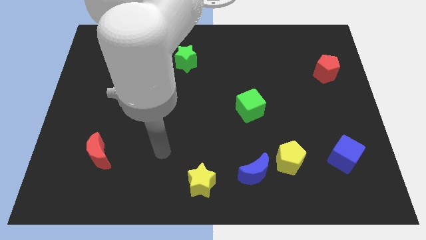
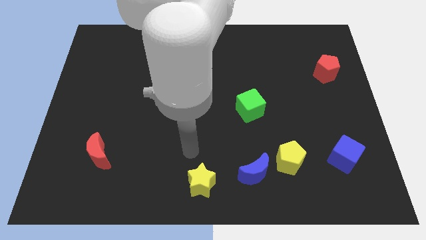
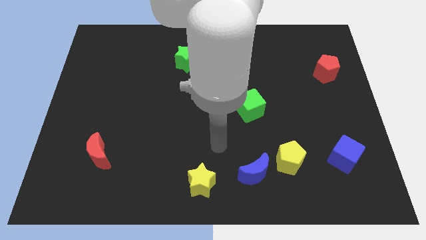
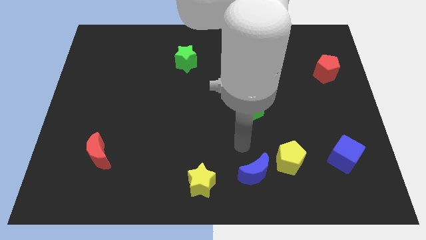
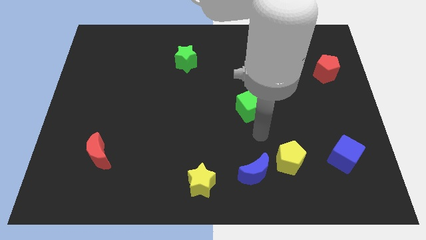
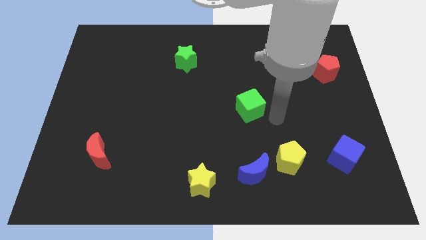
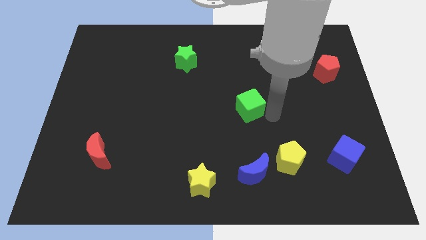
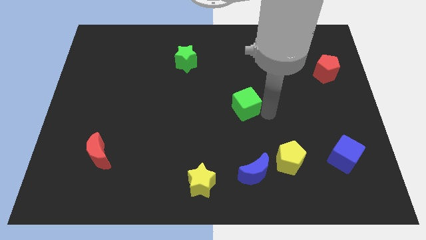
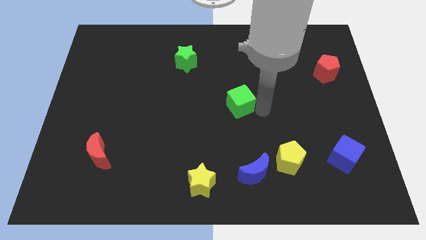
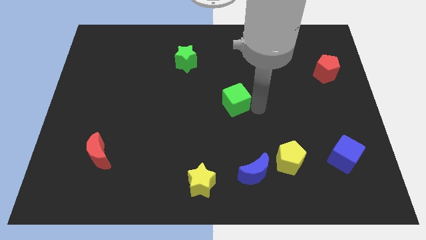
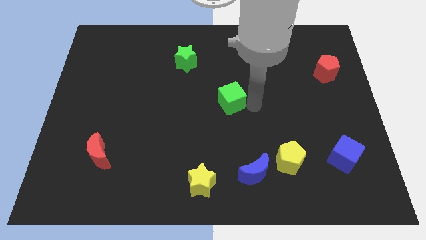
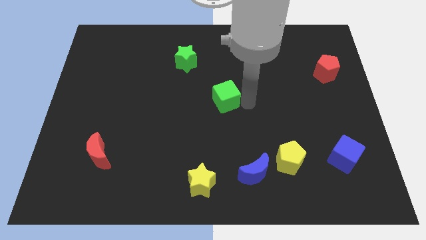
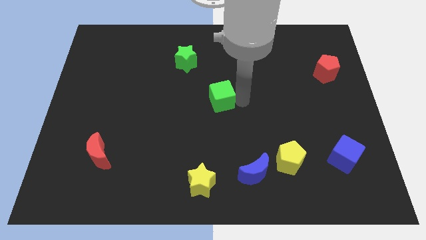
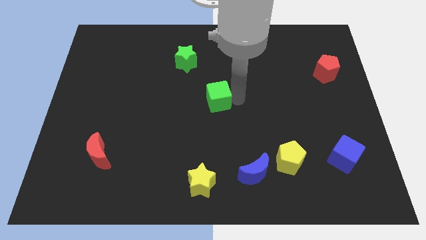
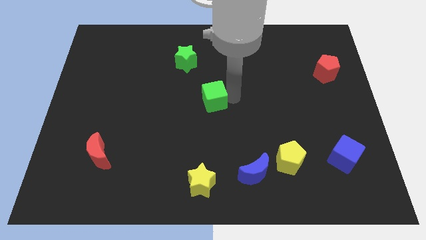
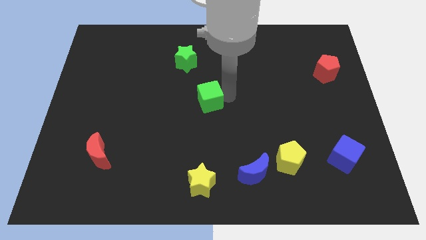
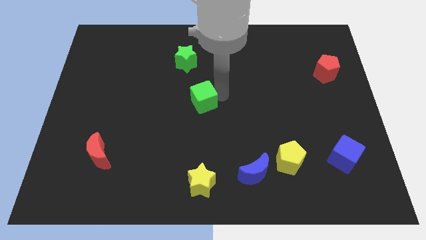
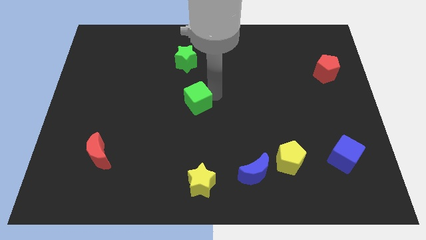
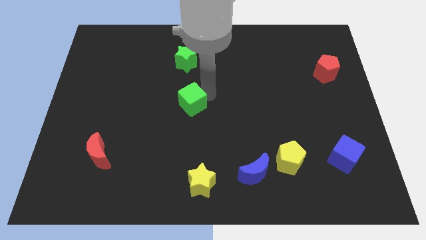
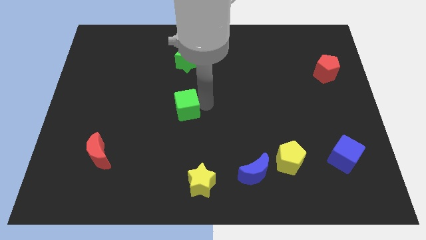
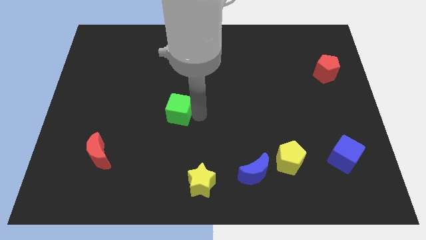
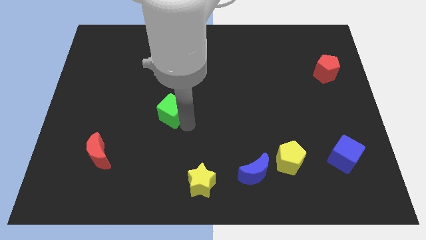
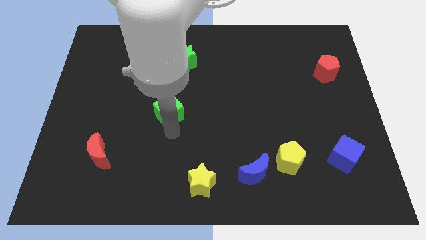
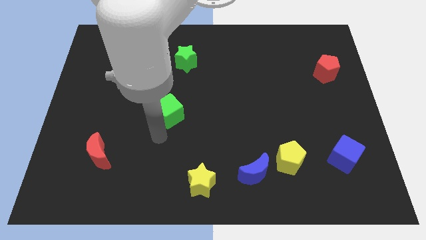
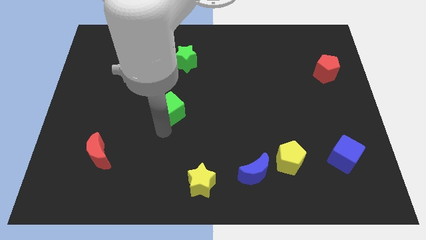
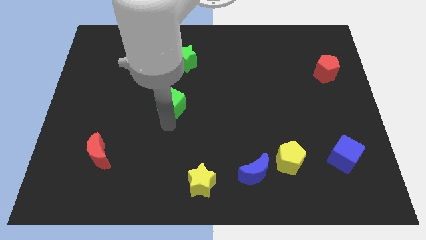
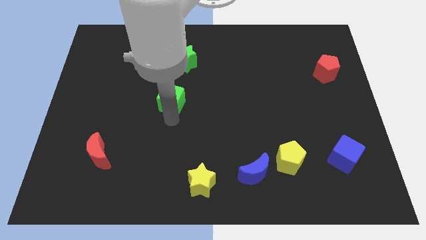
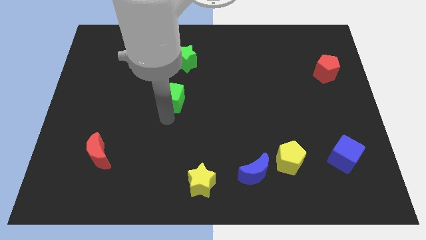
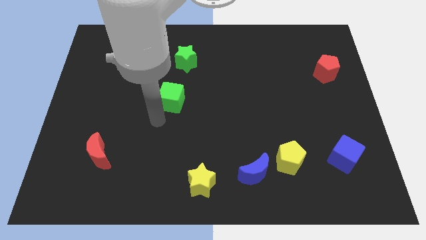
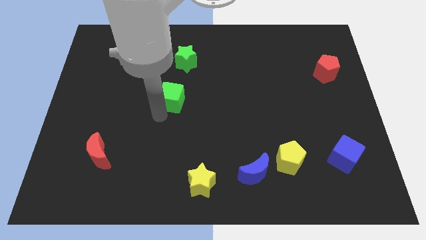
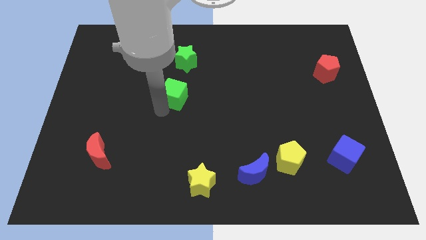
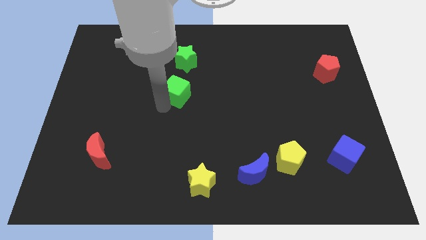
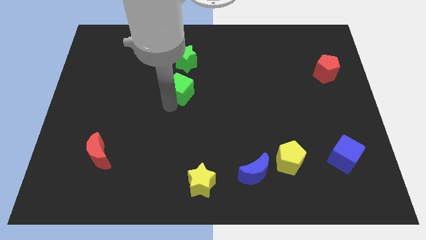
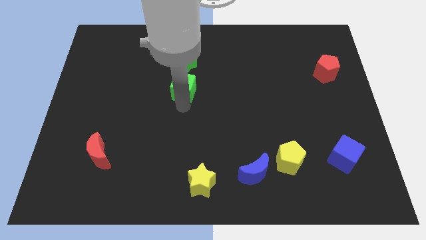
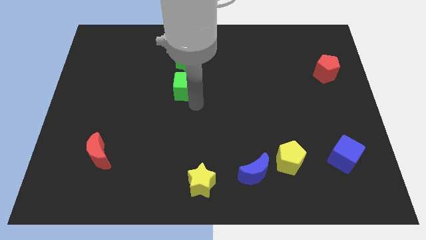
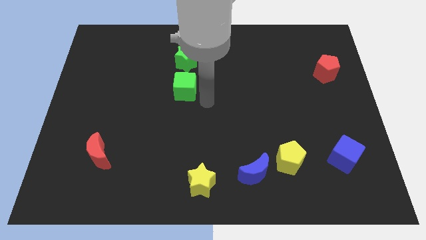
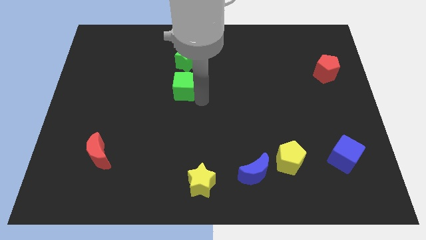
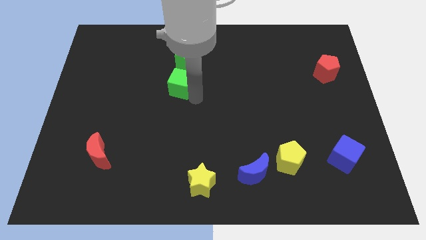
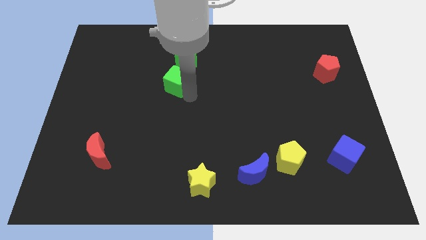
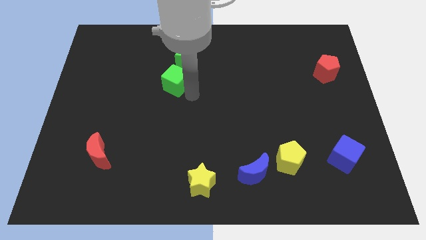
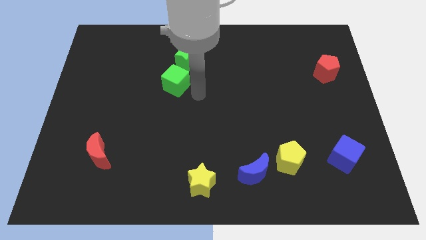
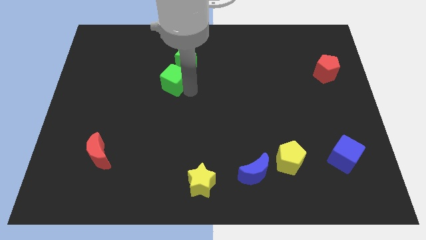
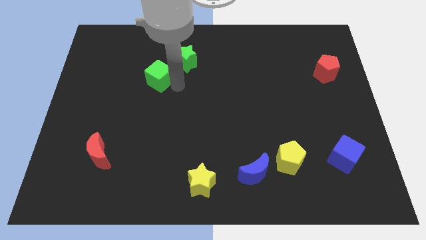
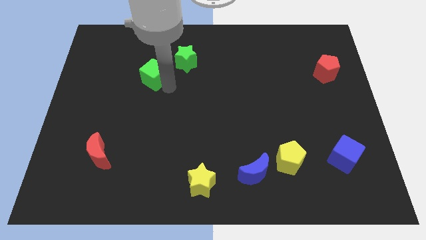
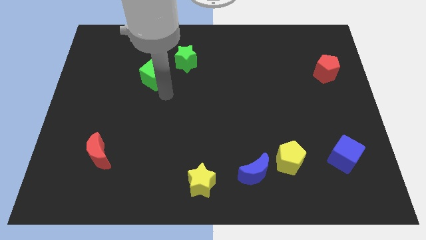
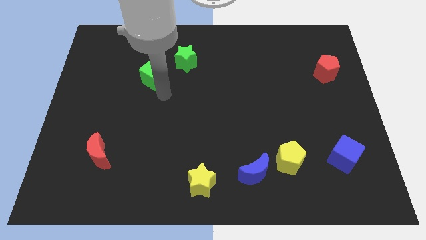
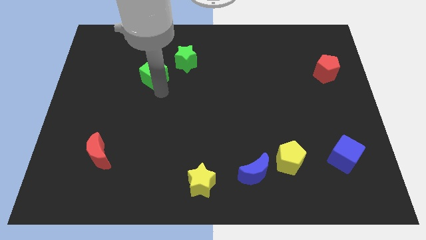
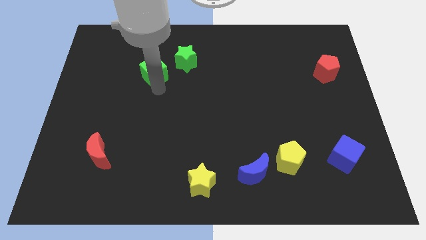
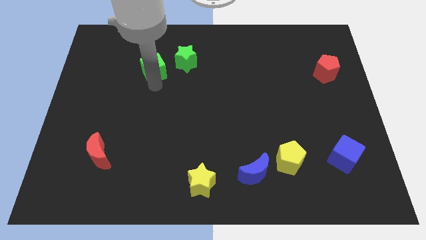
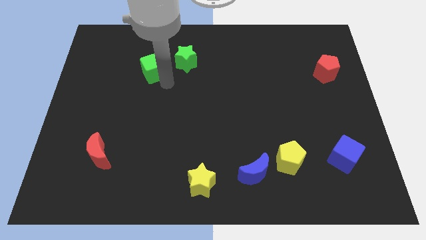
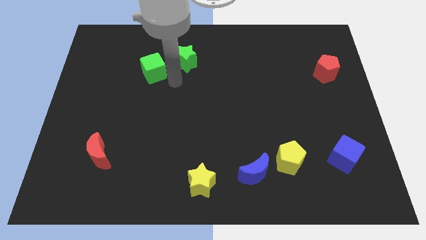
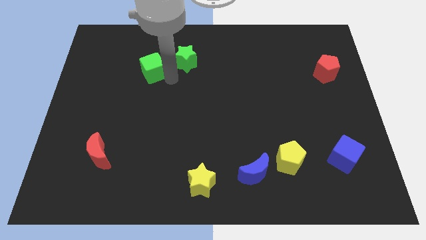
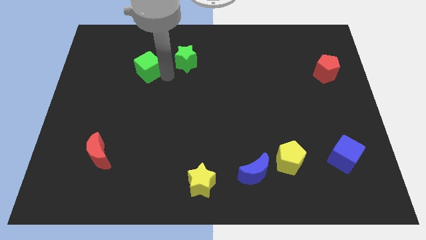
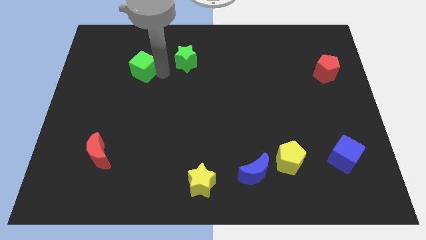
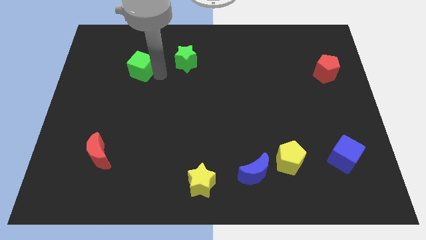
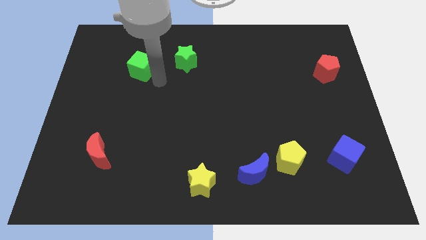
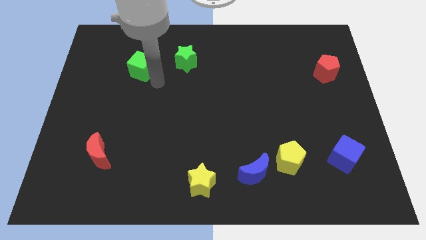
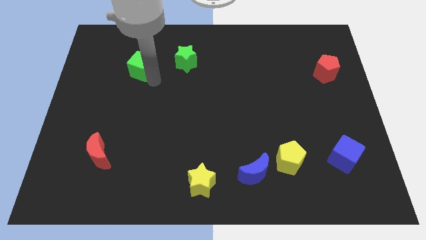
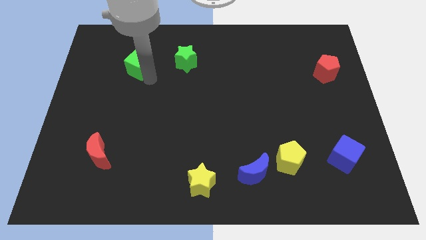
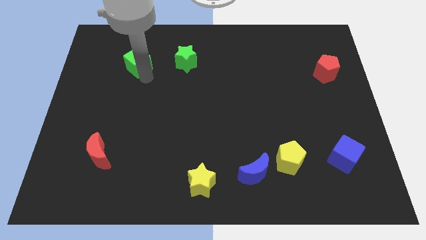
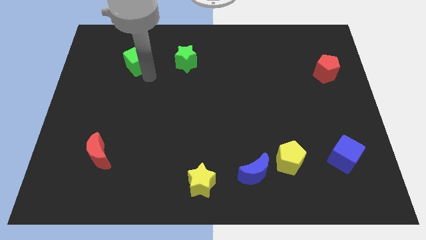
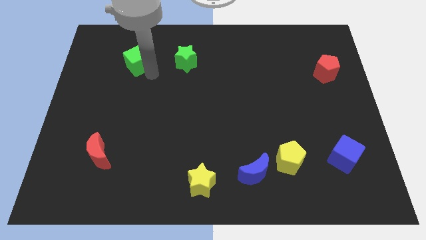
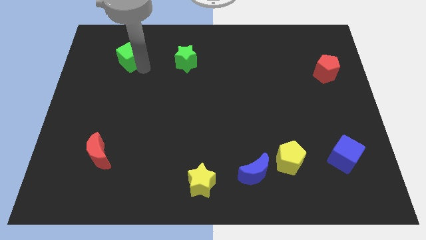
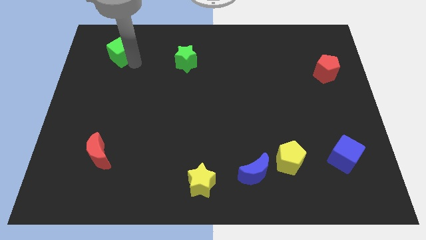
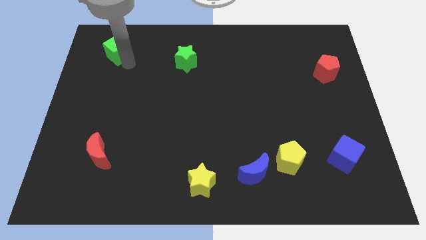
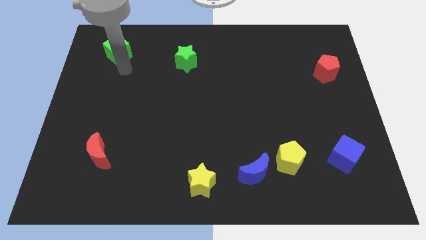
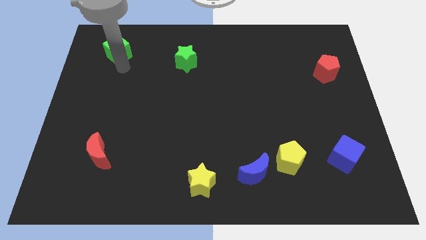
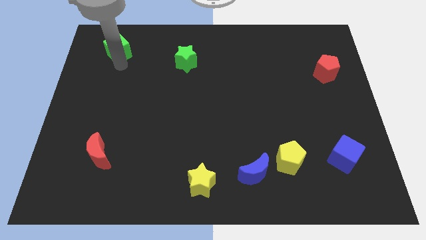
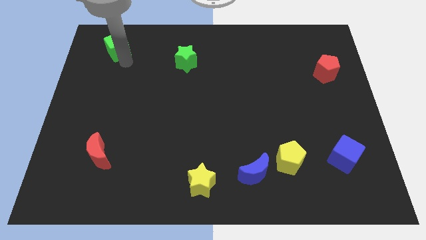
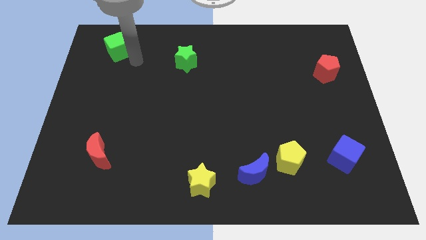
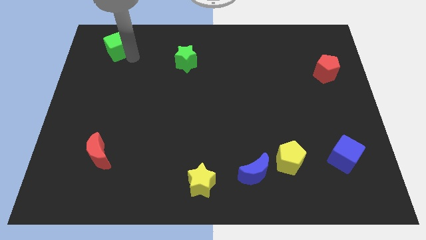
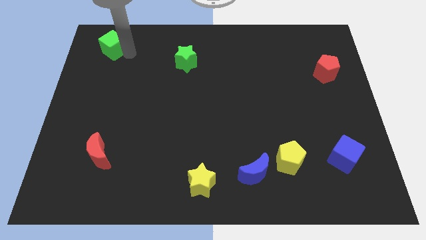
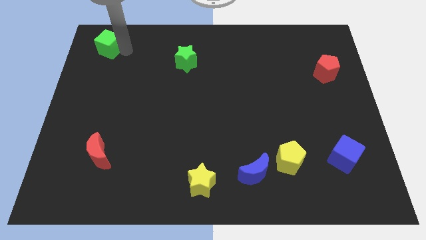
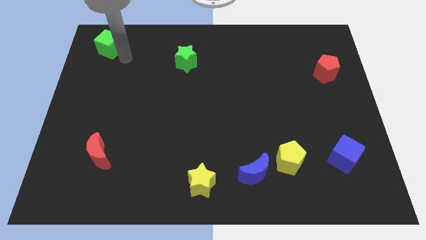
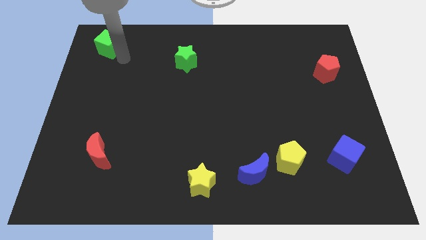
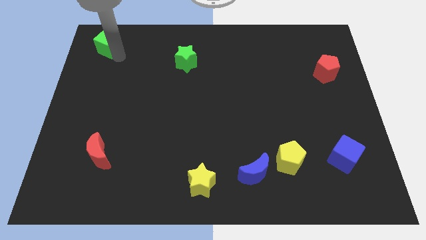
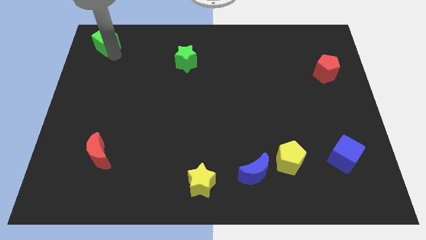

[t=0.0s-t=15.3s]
slide the green cube to the upper left corner

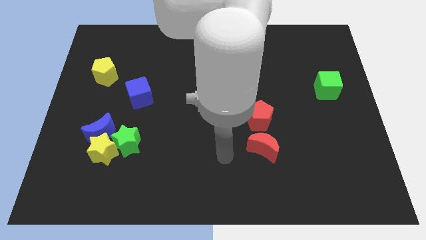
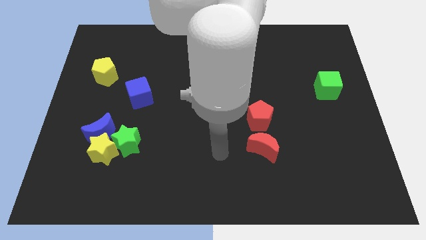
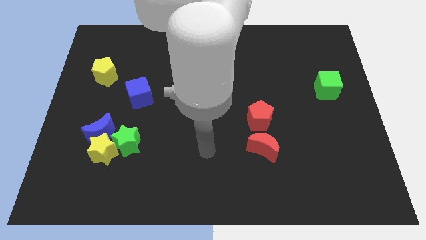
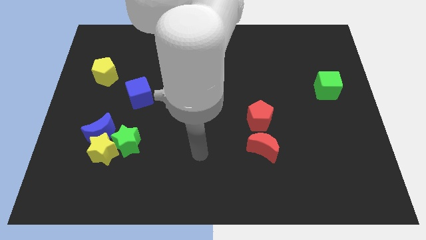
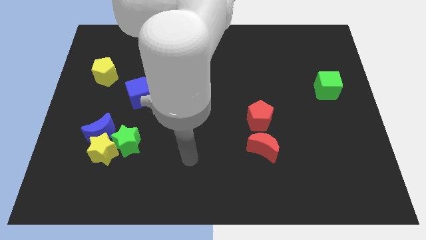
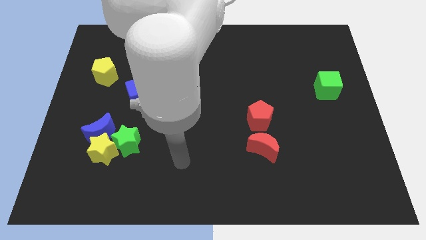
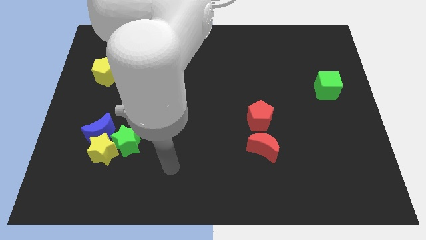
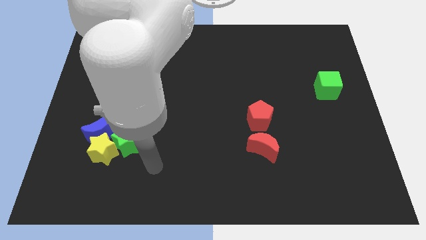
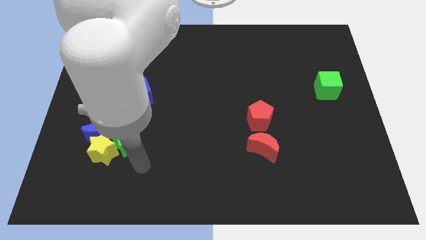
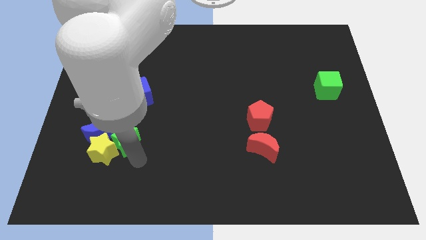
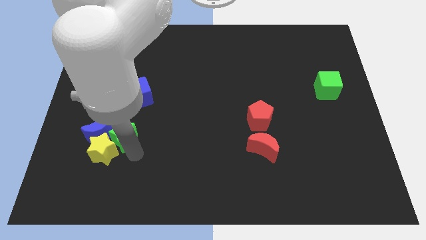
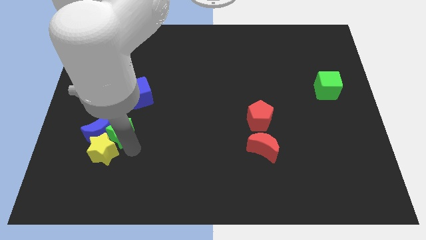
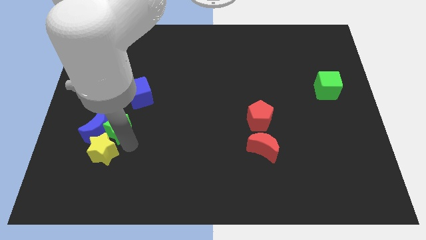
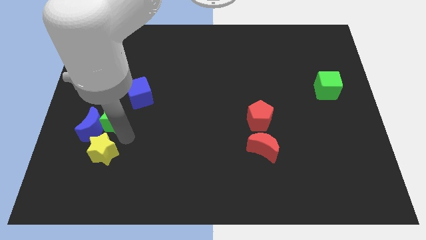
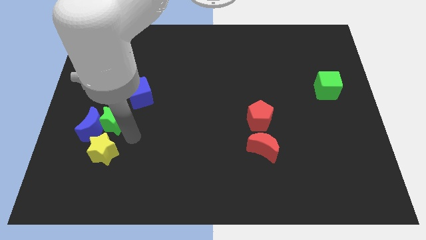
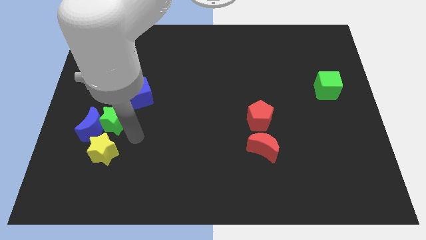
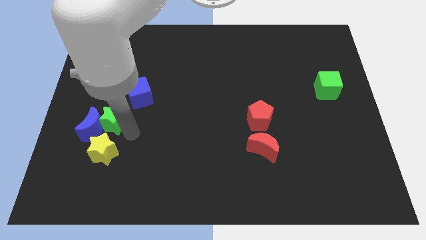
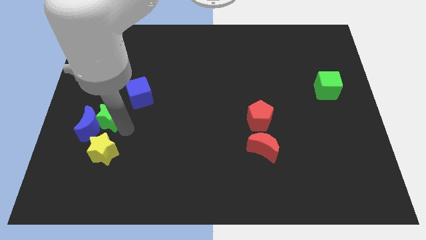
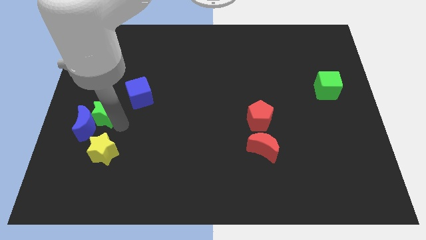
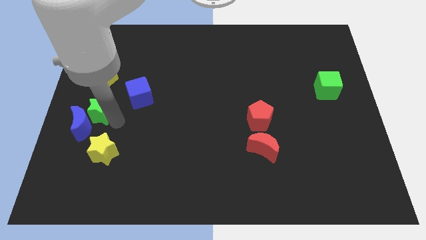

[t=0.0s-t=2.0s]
move the green star to the center left
